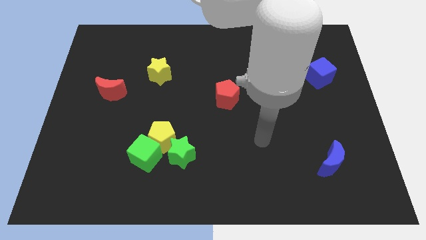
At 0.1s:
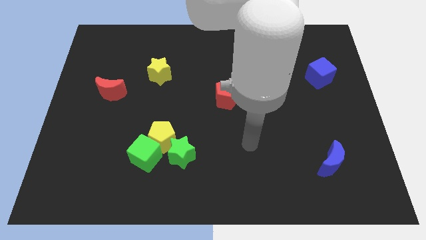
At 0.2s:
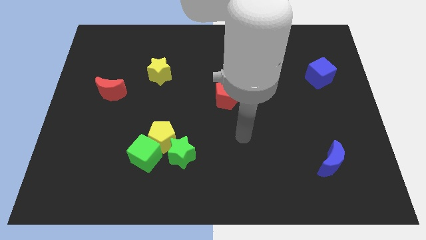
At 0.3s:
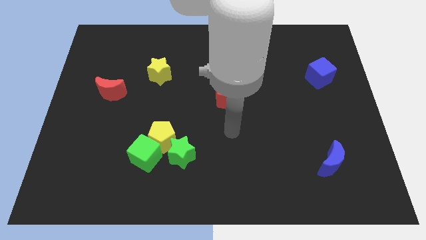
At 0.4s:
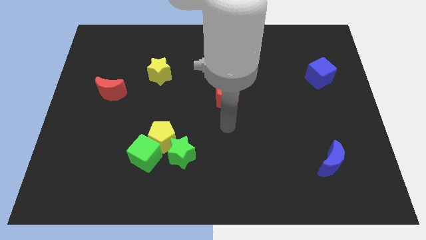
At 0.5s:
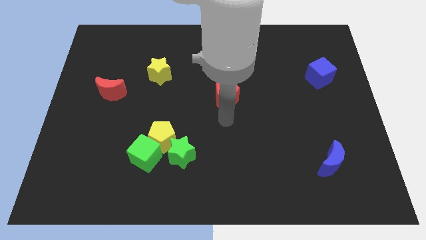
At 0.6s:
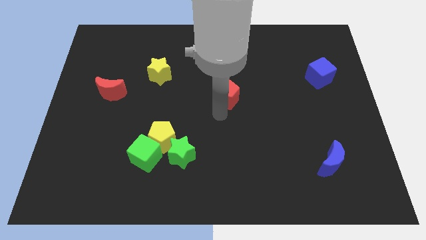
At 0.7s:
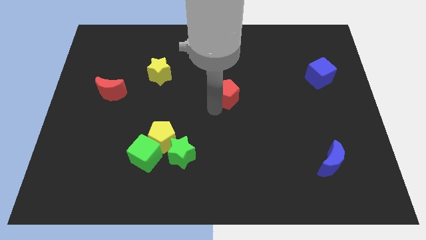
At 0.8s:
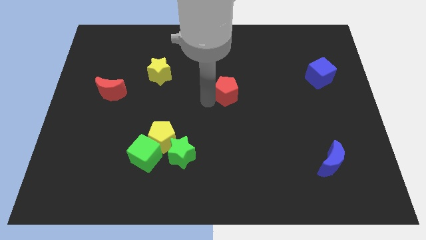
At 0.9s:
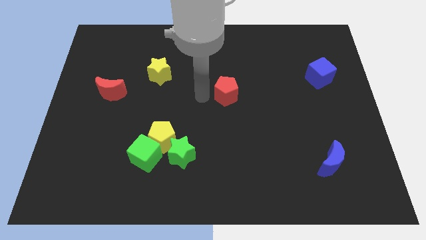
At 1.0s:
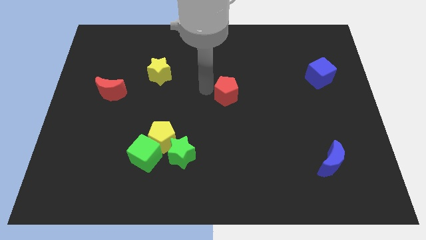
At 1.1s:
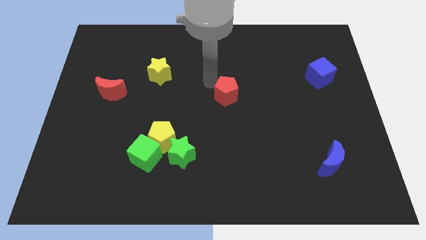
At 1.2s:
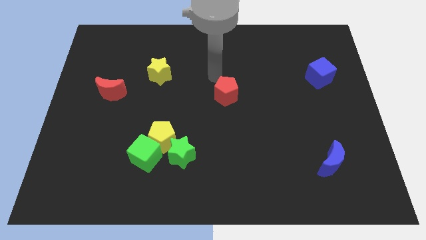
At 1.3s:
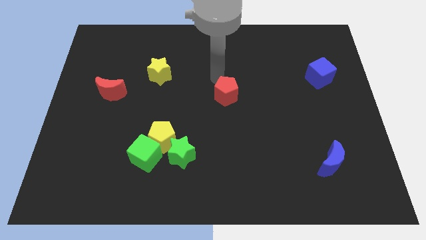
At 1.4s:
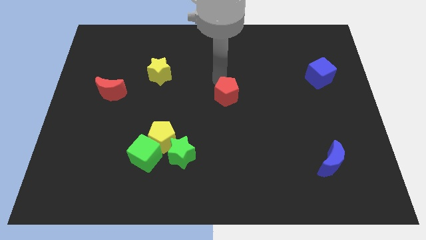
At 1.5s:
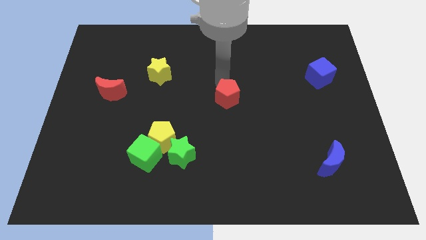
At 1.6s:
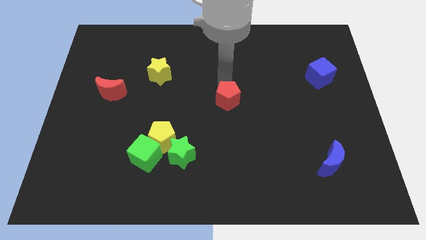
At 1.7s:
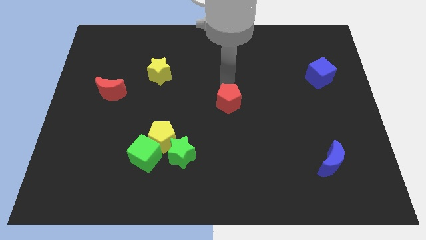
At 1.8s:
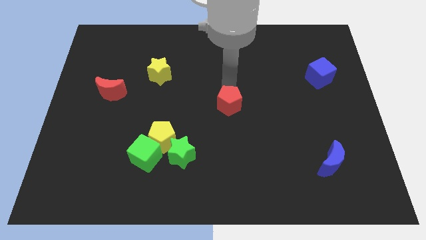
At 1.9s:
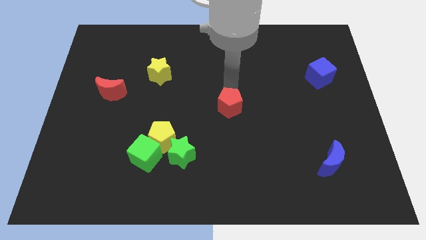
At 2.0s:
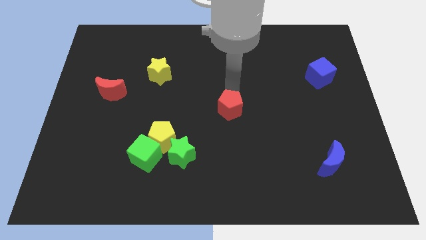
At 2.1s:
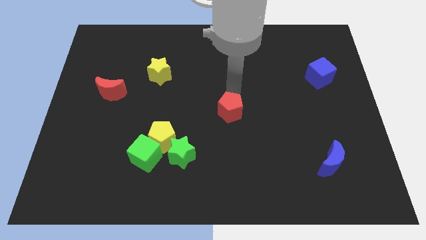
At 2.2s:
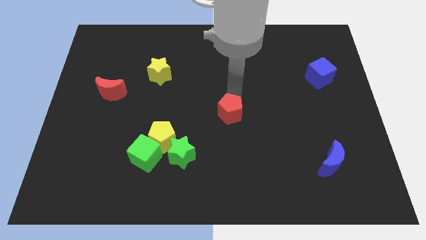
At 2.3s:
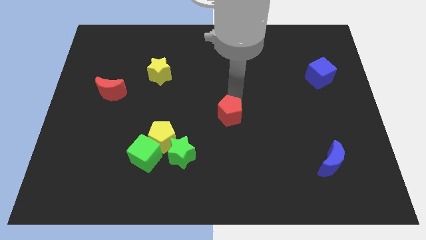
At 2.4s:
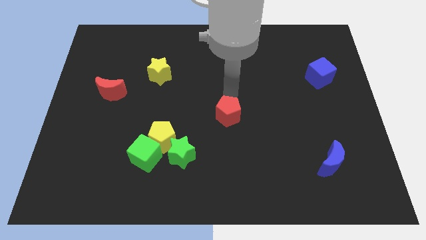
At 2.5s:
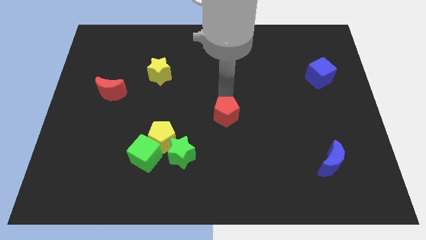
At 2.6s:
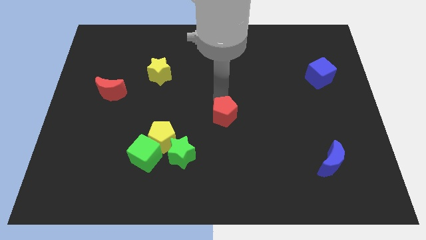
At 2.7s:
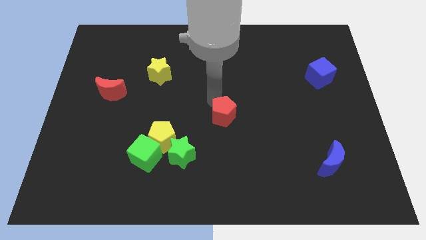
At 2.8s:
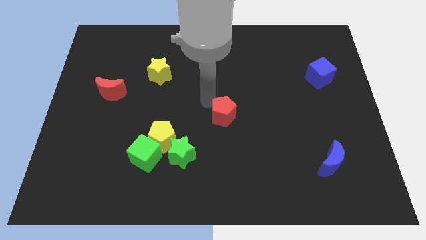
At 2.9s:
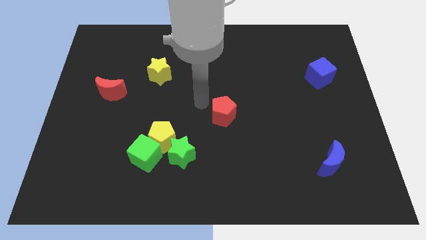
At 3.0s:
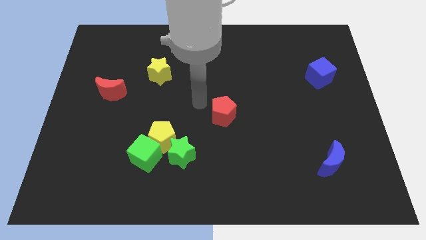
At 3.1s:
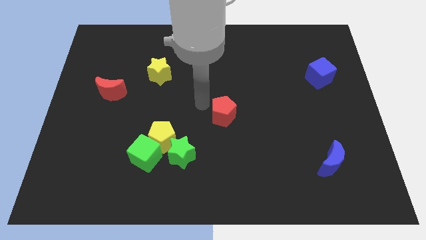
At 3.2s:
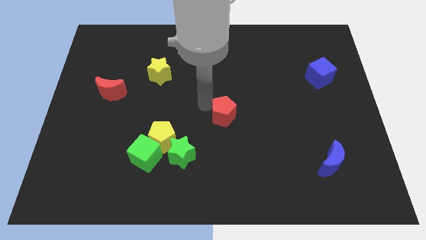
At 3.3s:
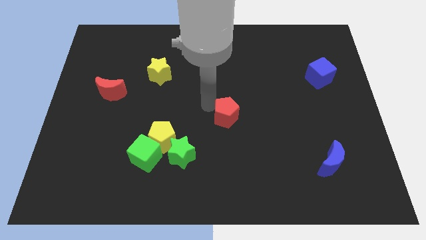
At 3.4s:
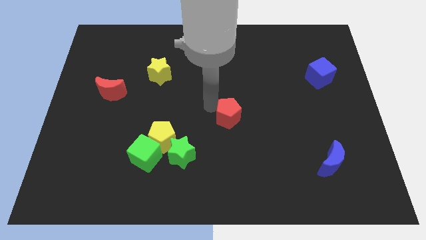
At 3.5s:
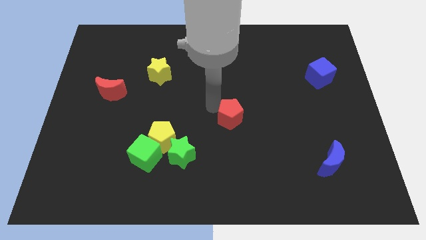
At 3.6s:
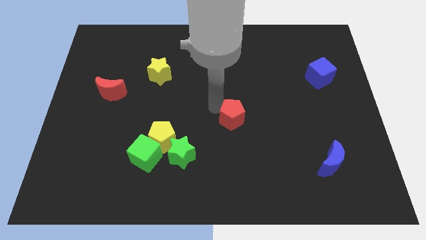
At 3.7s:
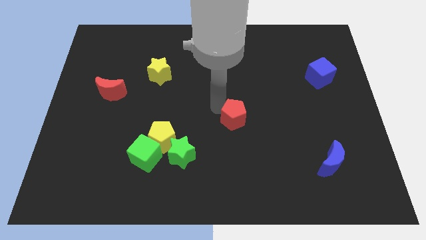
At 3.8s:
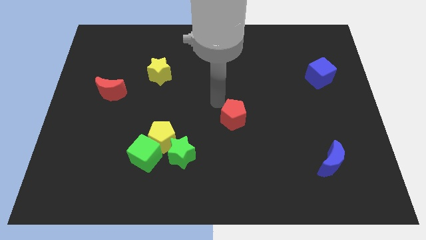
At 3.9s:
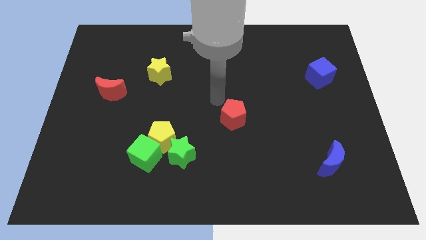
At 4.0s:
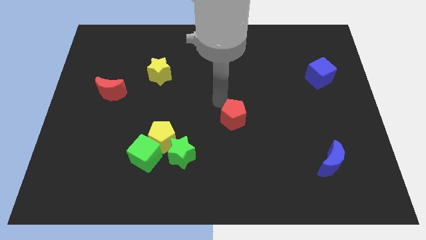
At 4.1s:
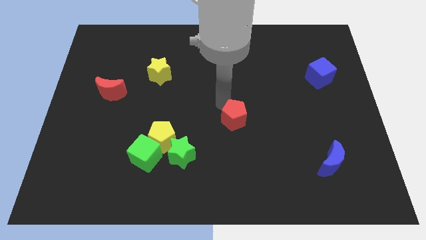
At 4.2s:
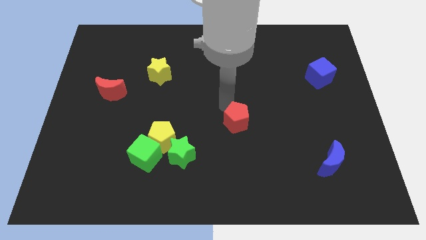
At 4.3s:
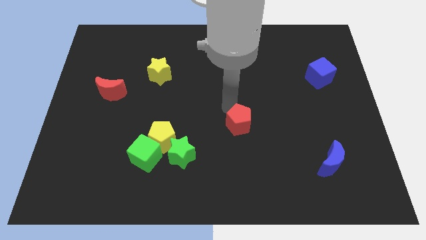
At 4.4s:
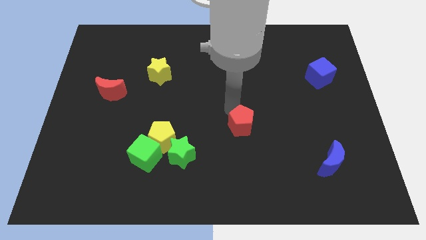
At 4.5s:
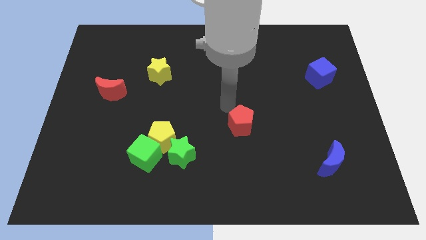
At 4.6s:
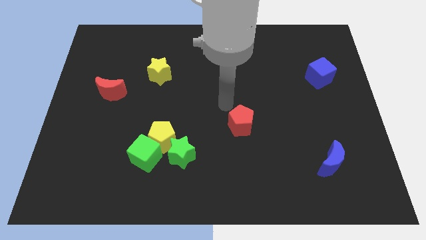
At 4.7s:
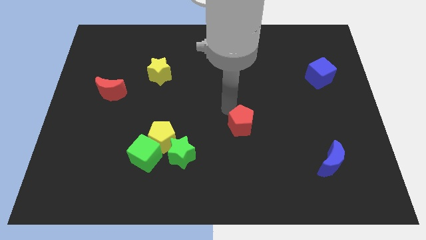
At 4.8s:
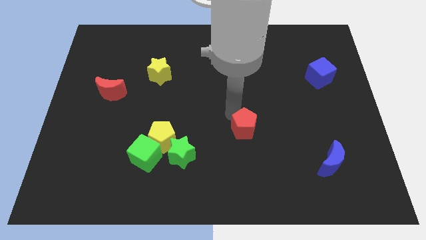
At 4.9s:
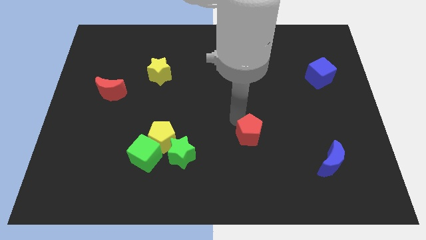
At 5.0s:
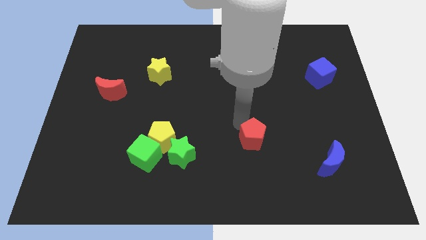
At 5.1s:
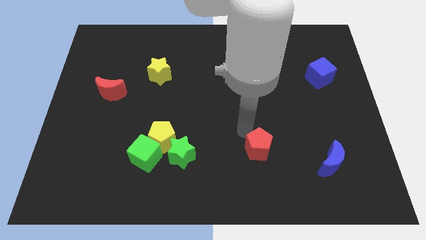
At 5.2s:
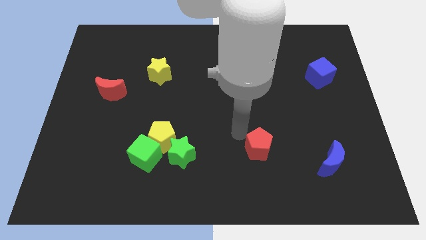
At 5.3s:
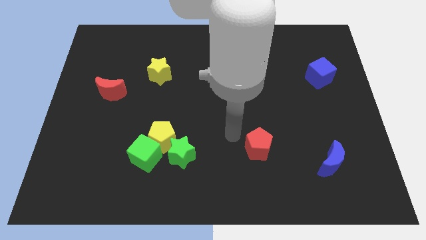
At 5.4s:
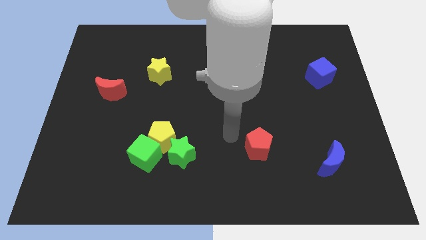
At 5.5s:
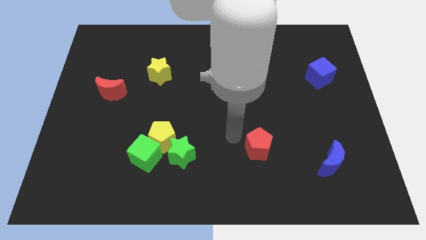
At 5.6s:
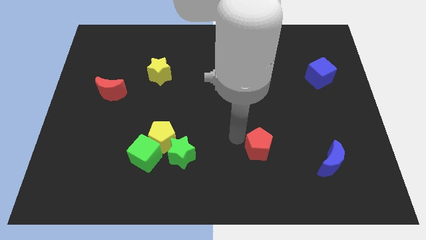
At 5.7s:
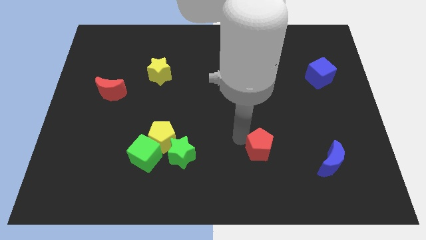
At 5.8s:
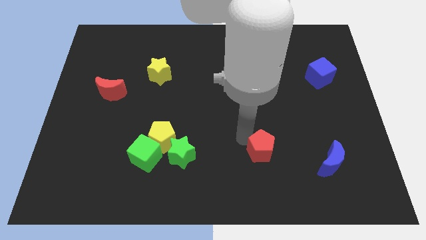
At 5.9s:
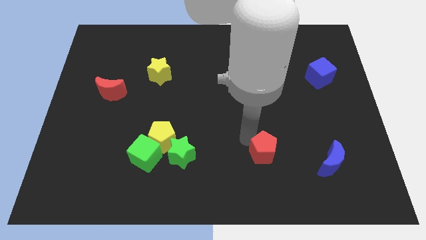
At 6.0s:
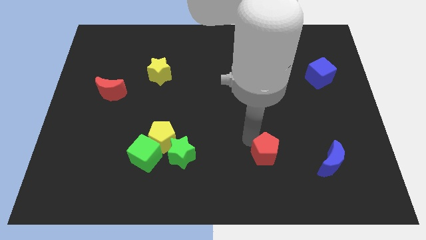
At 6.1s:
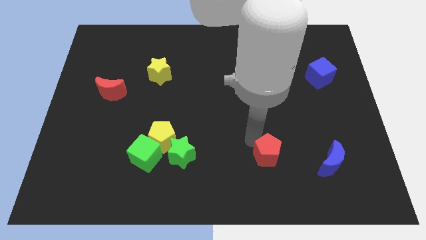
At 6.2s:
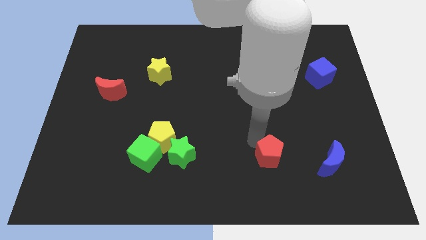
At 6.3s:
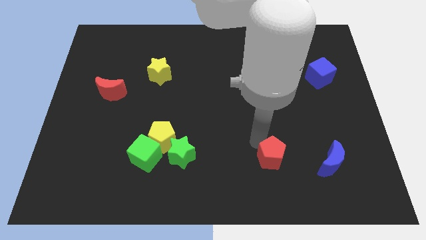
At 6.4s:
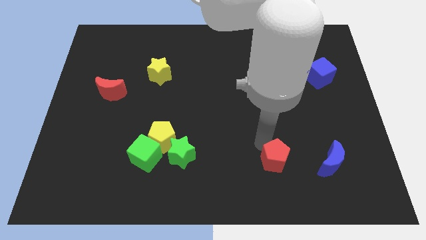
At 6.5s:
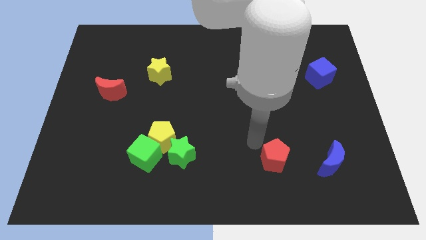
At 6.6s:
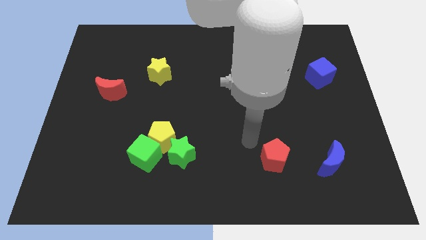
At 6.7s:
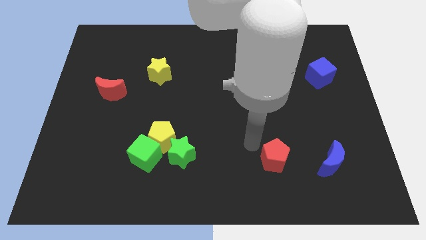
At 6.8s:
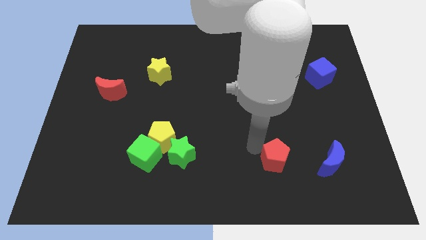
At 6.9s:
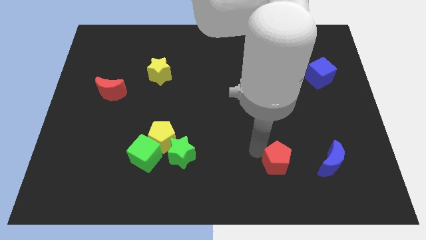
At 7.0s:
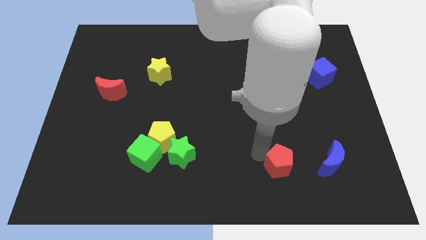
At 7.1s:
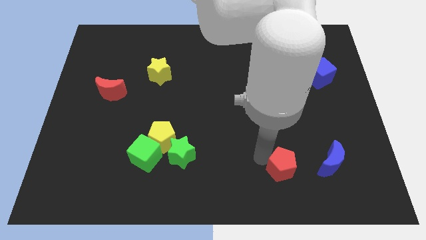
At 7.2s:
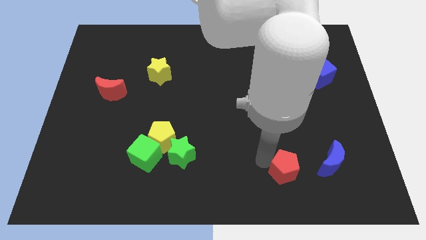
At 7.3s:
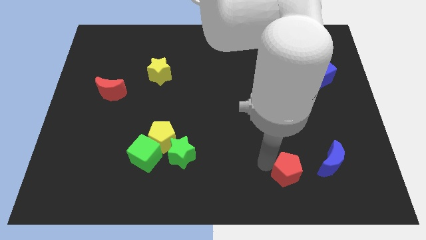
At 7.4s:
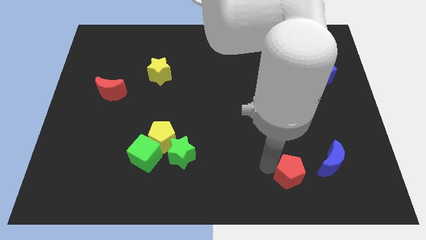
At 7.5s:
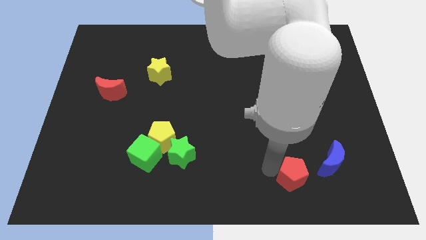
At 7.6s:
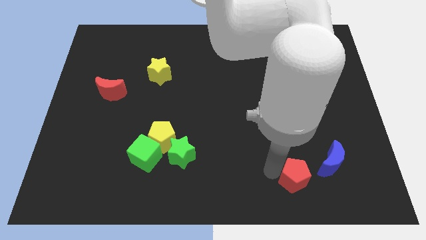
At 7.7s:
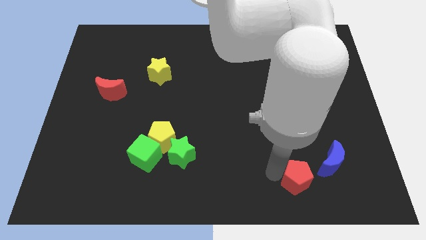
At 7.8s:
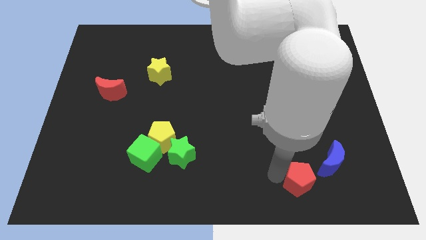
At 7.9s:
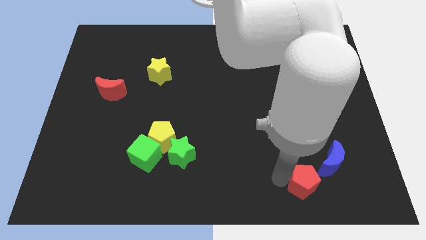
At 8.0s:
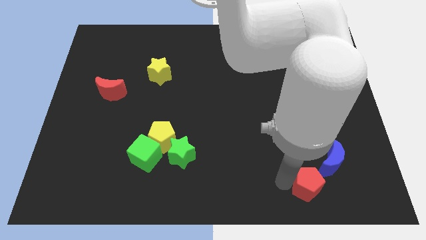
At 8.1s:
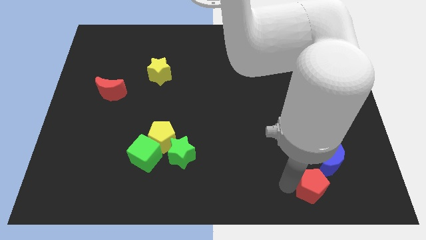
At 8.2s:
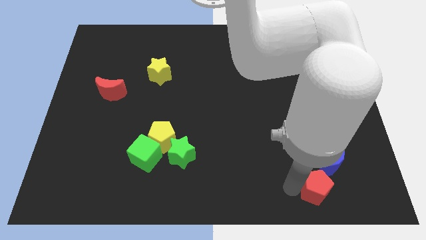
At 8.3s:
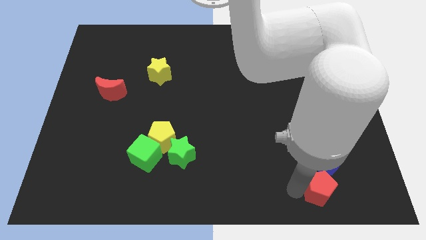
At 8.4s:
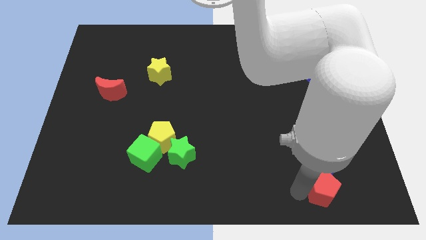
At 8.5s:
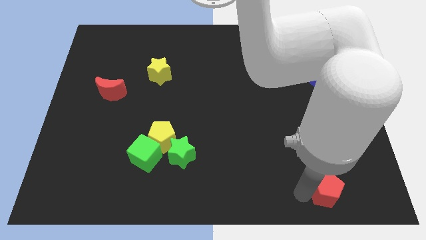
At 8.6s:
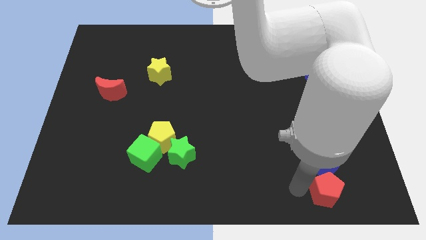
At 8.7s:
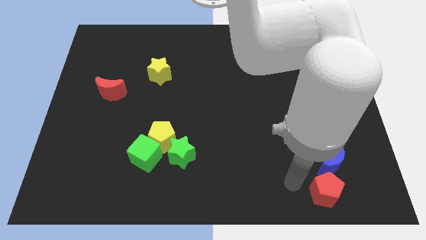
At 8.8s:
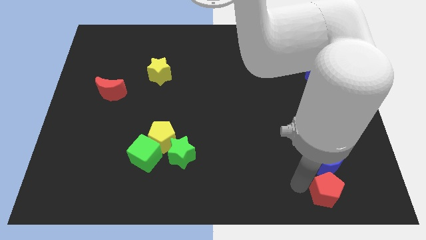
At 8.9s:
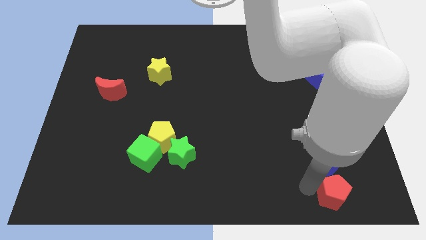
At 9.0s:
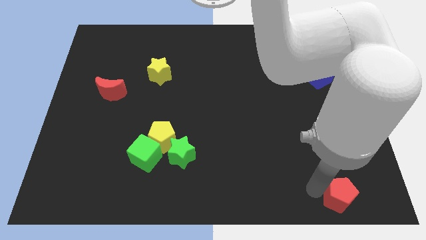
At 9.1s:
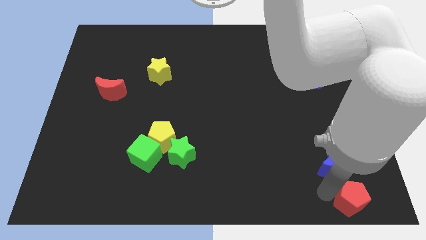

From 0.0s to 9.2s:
slide the red pentagon to the bottom right of the board
